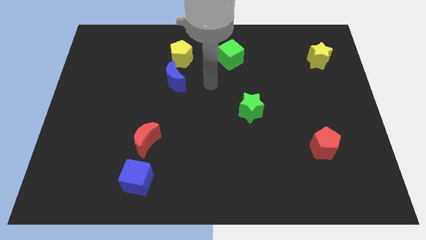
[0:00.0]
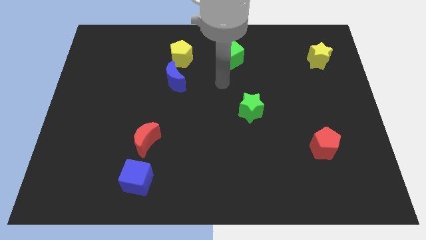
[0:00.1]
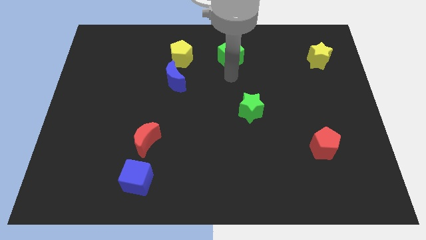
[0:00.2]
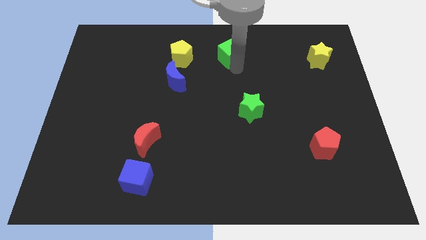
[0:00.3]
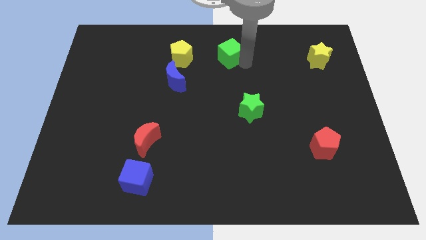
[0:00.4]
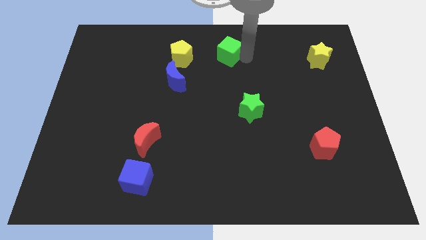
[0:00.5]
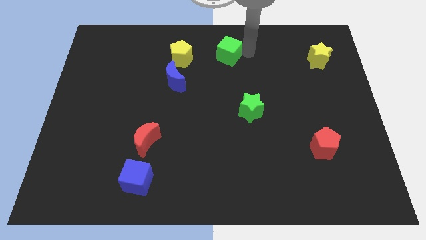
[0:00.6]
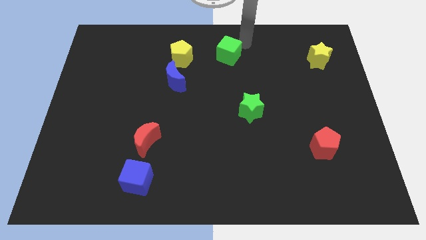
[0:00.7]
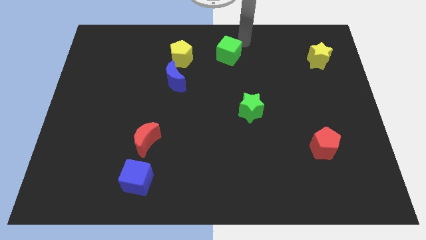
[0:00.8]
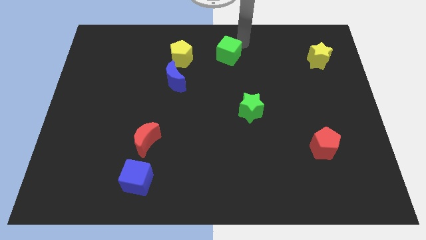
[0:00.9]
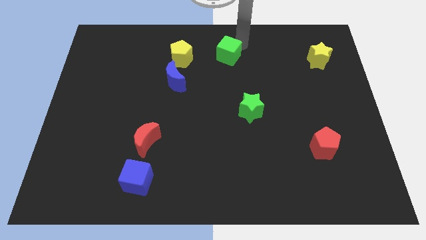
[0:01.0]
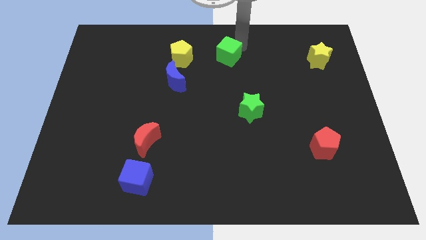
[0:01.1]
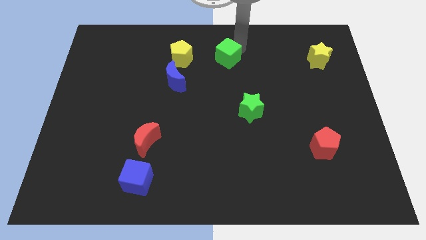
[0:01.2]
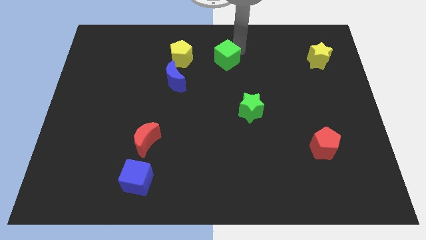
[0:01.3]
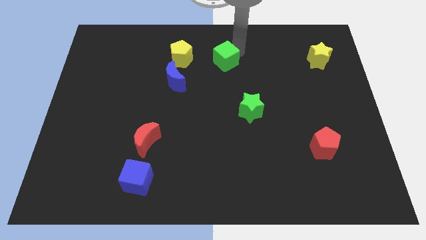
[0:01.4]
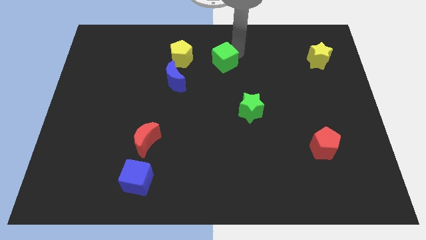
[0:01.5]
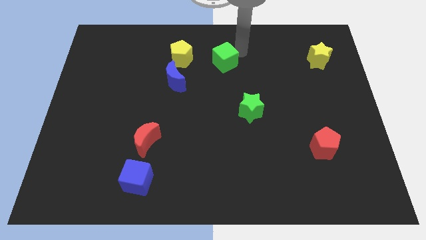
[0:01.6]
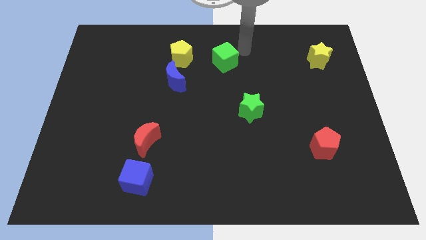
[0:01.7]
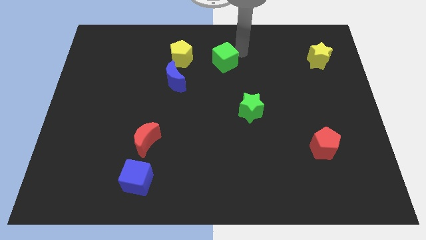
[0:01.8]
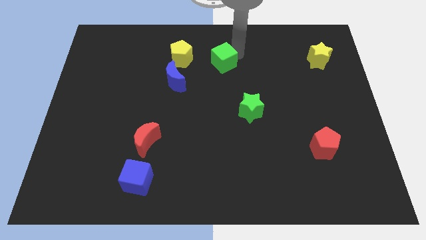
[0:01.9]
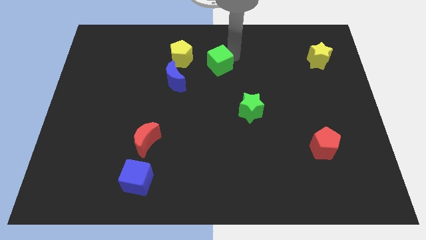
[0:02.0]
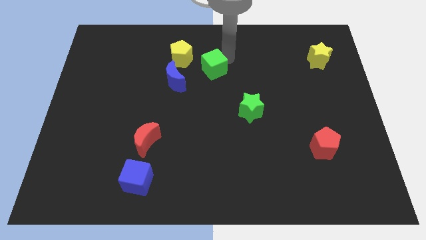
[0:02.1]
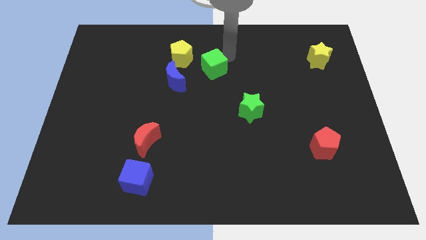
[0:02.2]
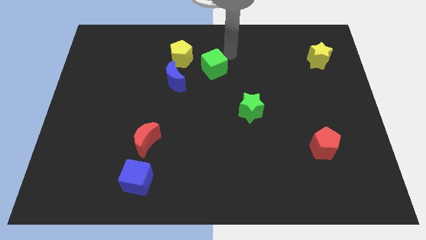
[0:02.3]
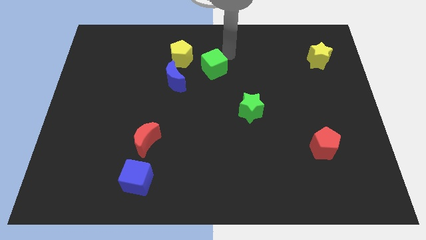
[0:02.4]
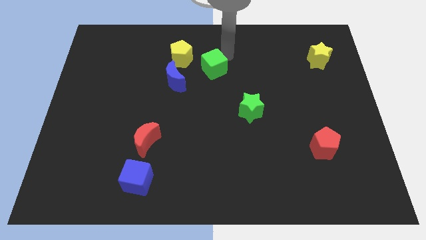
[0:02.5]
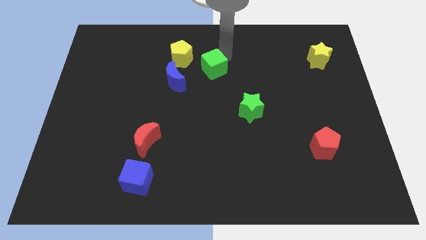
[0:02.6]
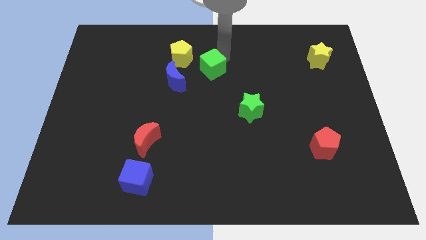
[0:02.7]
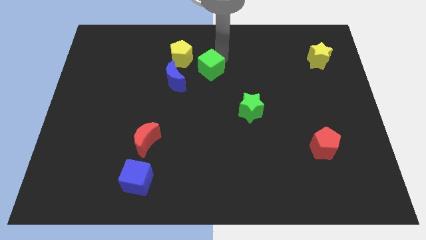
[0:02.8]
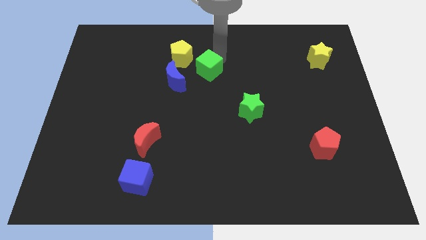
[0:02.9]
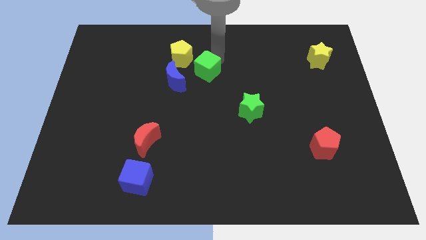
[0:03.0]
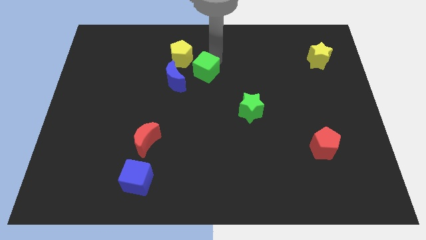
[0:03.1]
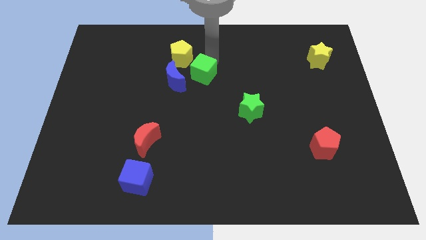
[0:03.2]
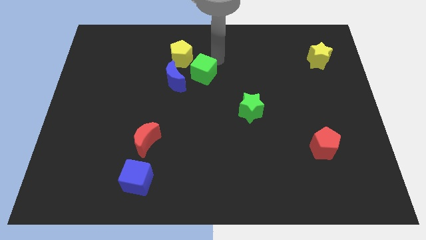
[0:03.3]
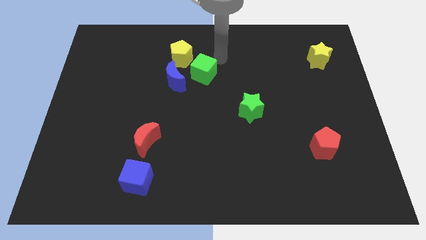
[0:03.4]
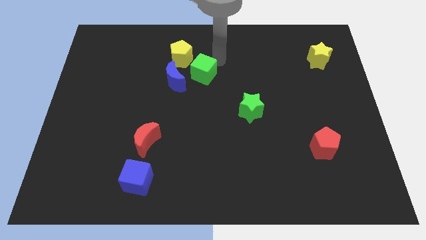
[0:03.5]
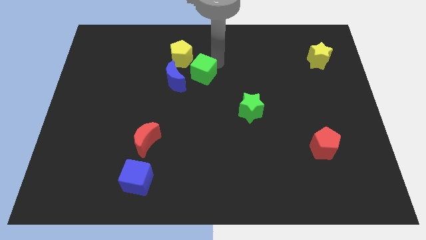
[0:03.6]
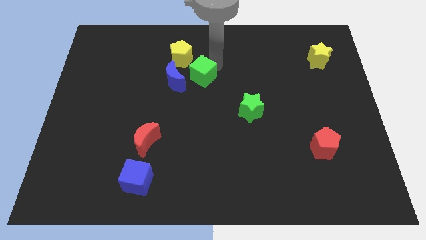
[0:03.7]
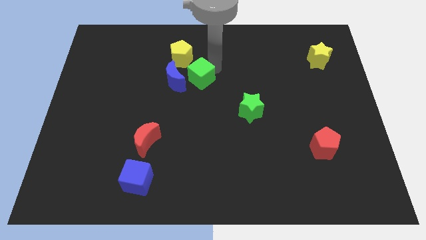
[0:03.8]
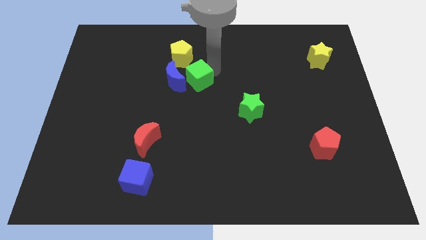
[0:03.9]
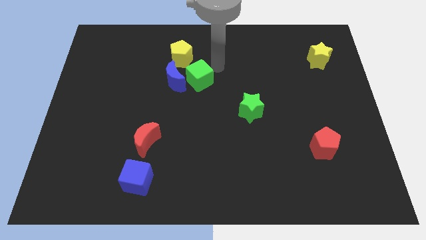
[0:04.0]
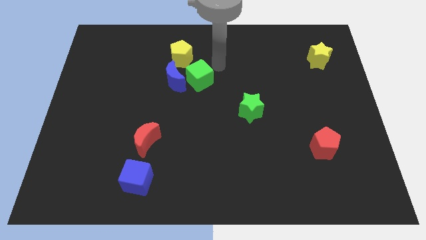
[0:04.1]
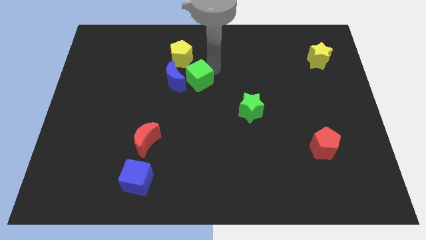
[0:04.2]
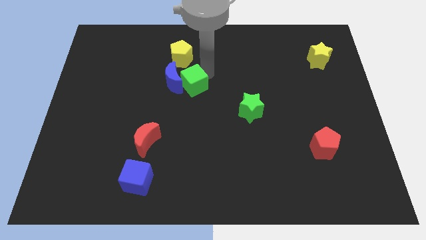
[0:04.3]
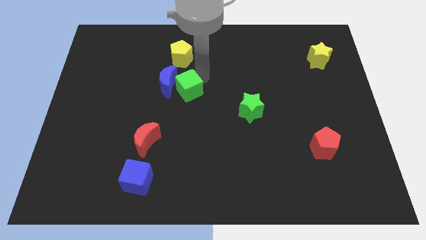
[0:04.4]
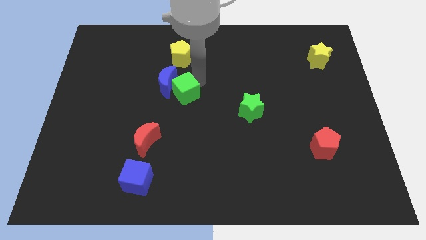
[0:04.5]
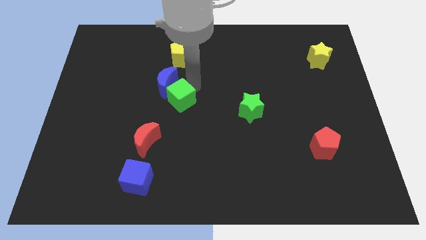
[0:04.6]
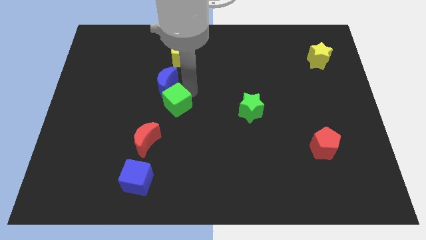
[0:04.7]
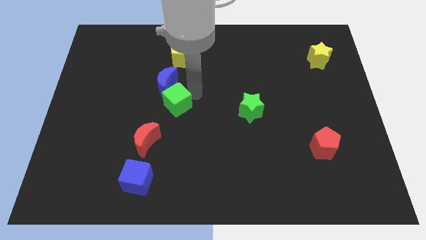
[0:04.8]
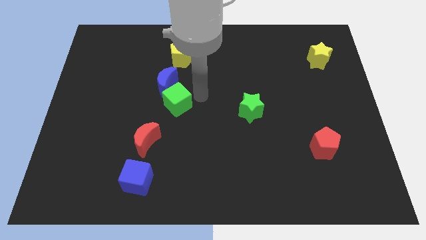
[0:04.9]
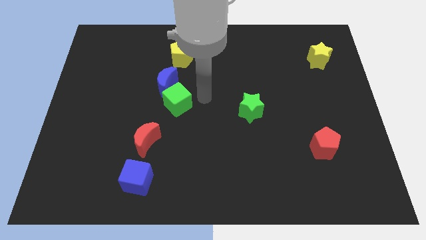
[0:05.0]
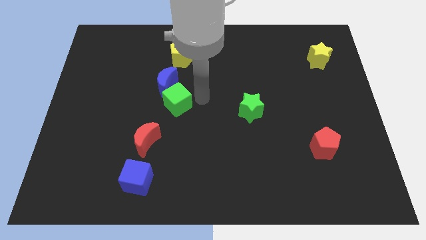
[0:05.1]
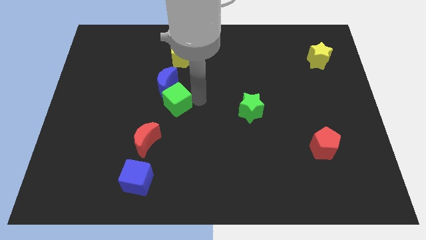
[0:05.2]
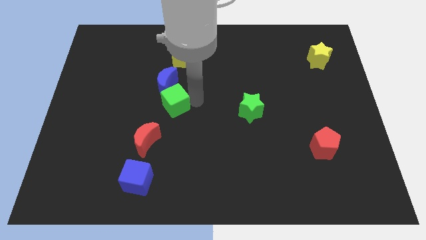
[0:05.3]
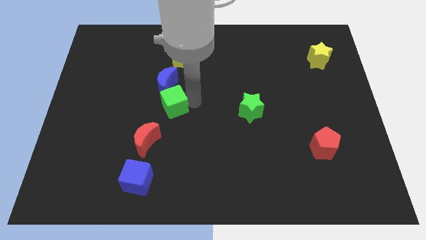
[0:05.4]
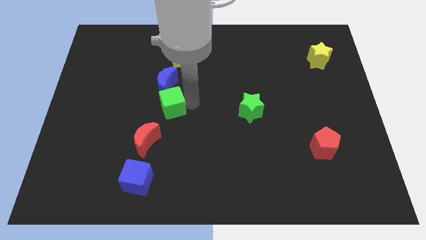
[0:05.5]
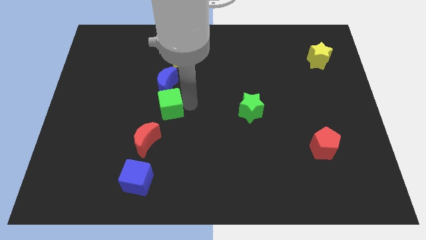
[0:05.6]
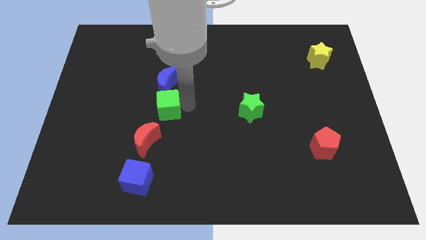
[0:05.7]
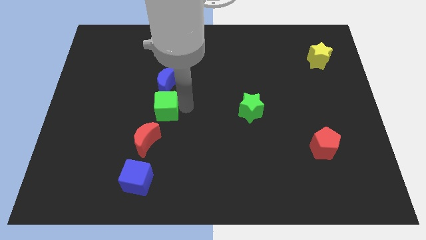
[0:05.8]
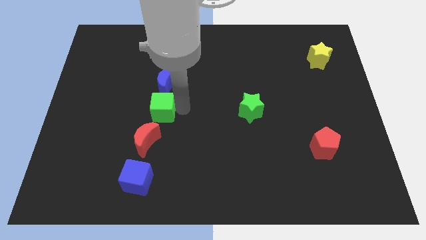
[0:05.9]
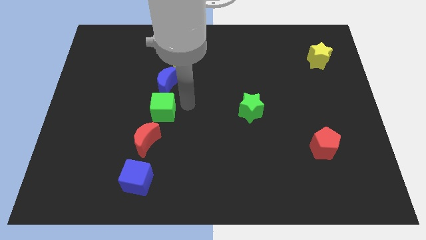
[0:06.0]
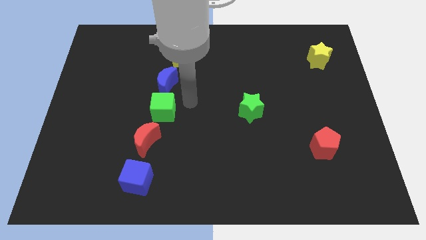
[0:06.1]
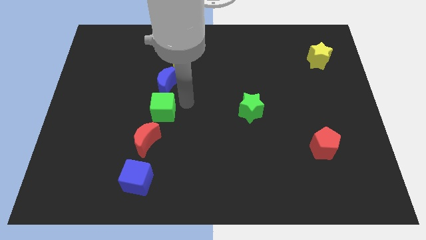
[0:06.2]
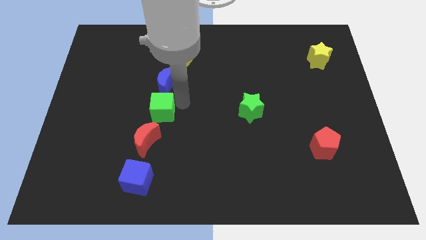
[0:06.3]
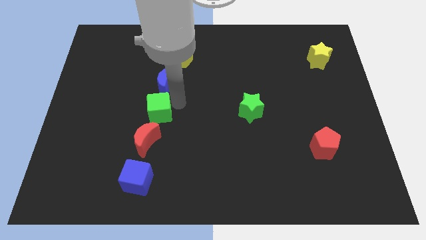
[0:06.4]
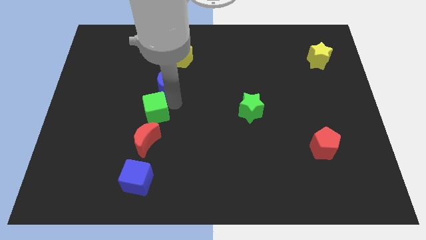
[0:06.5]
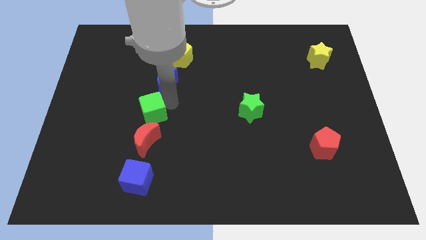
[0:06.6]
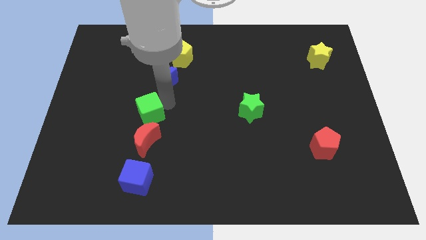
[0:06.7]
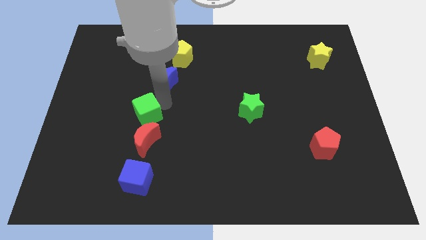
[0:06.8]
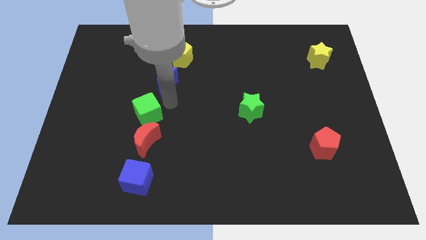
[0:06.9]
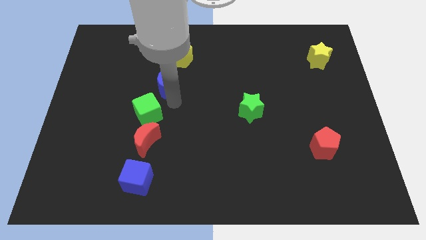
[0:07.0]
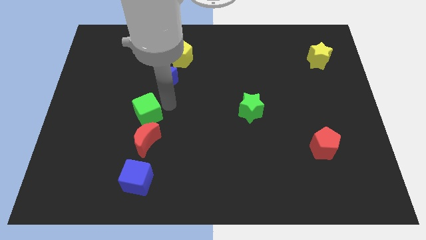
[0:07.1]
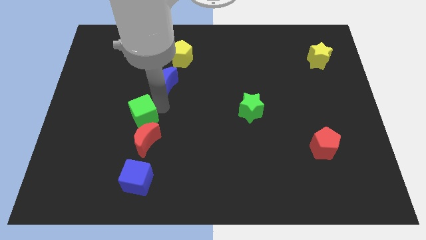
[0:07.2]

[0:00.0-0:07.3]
put the green cube to the top left side of the red moon
